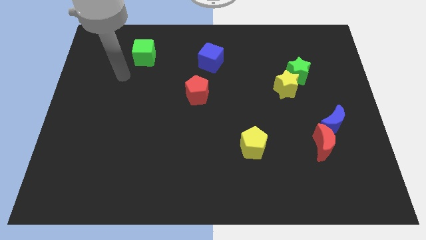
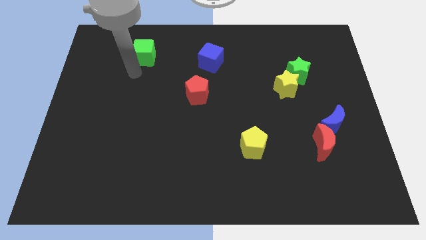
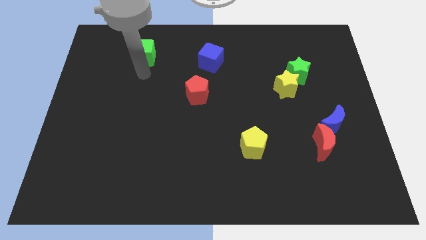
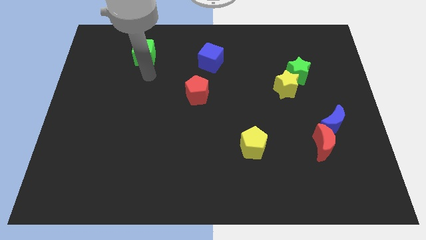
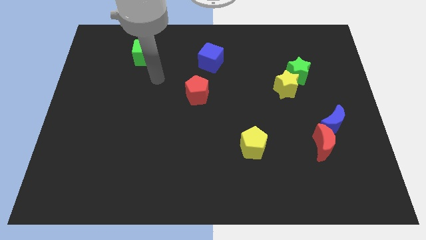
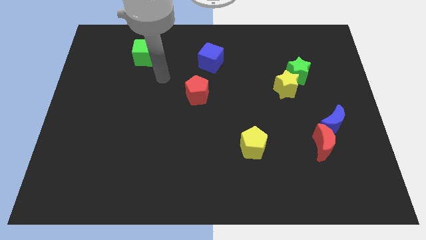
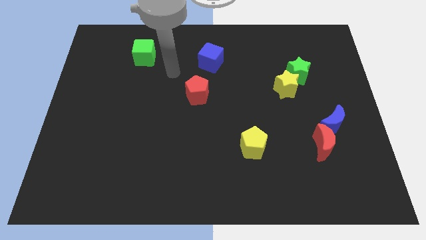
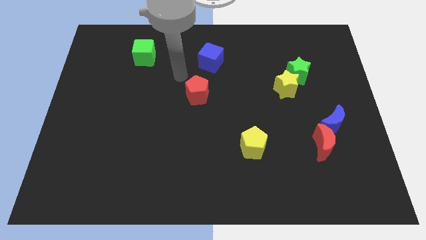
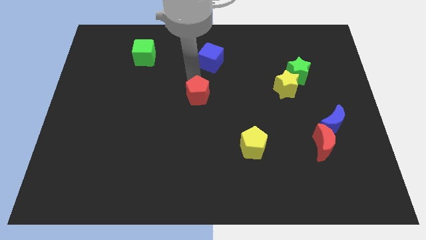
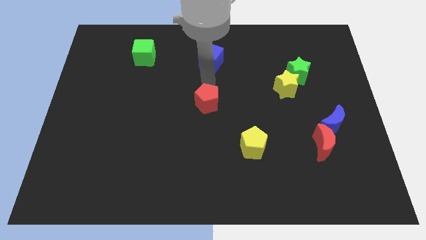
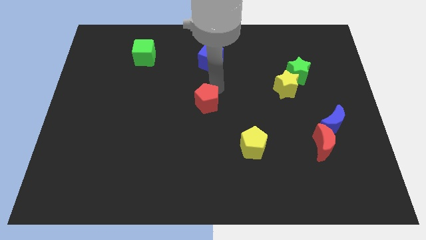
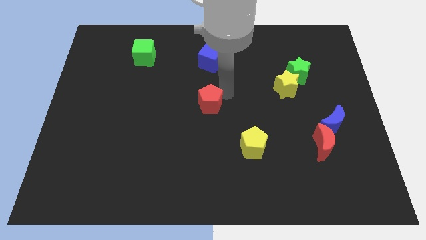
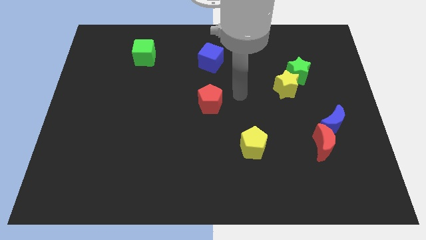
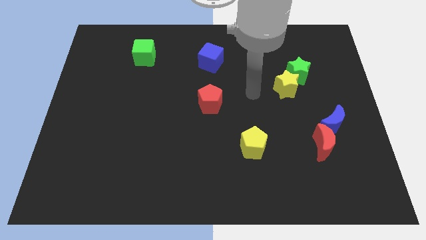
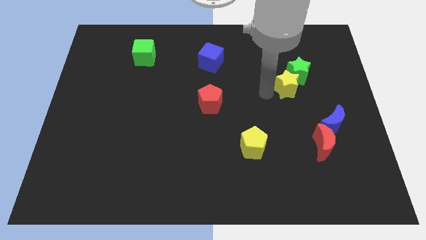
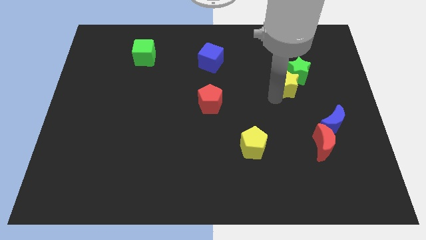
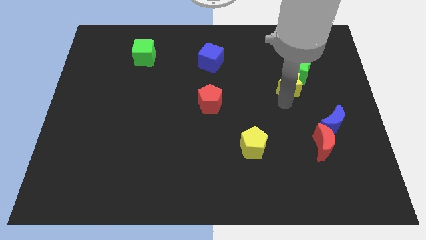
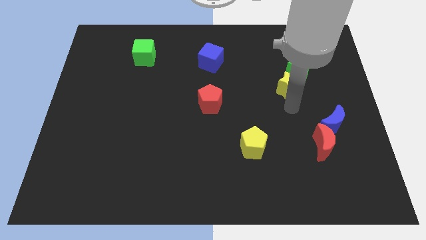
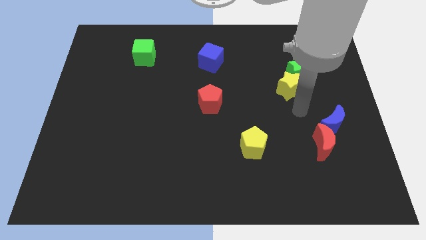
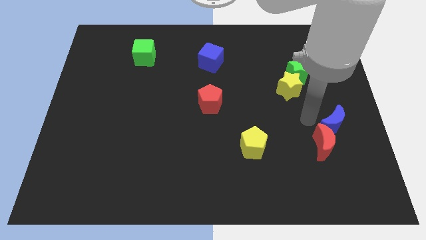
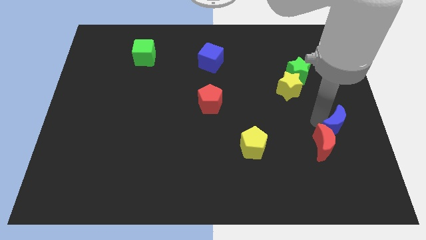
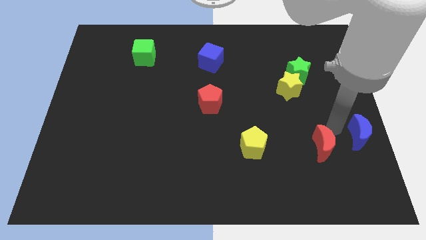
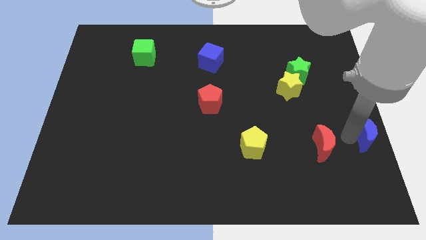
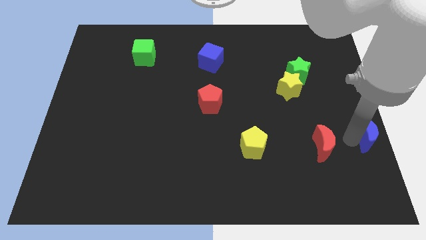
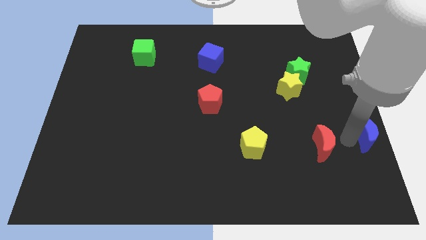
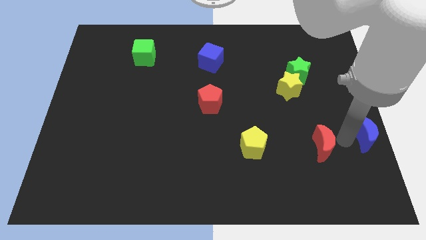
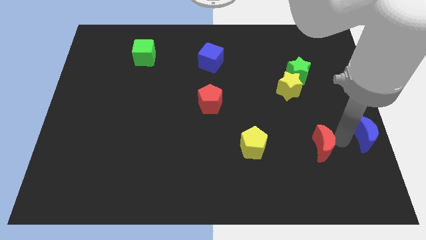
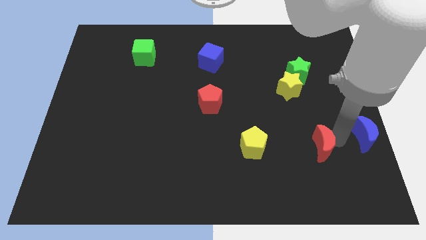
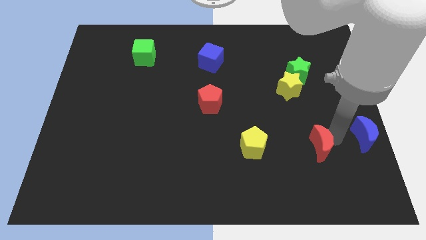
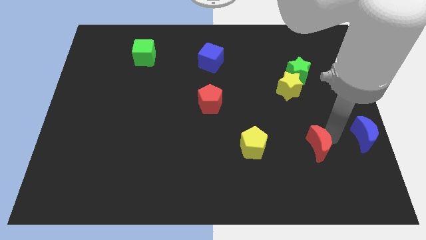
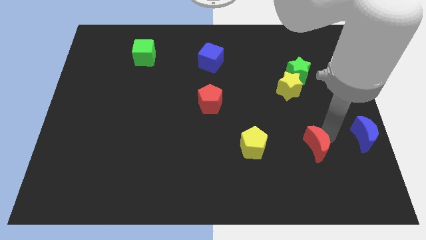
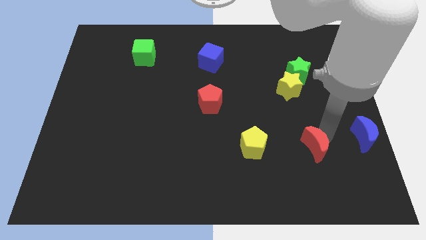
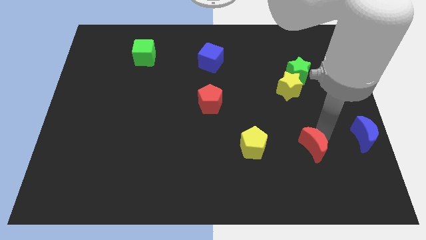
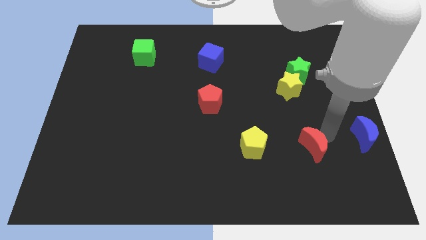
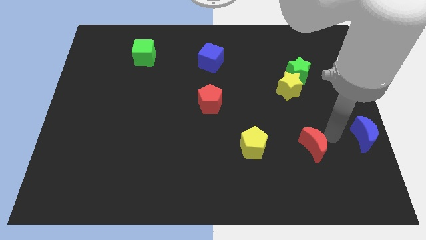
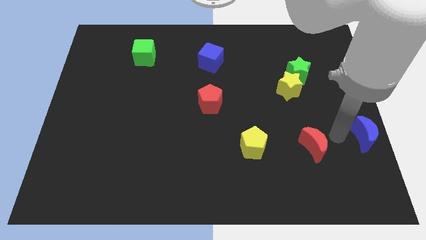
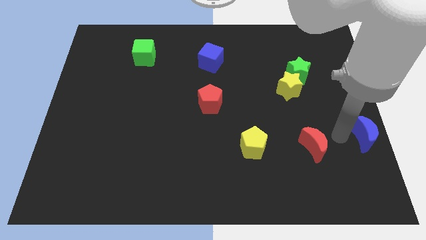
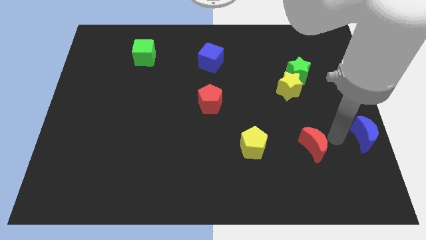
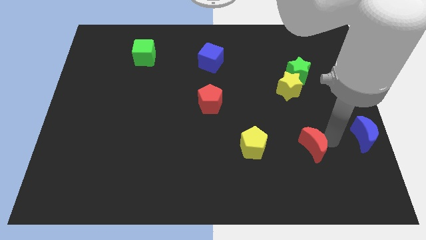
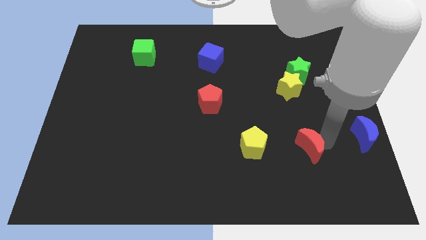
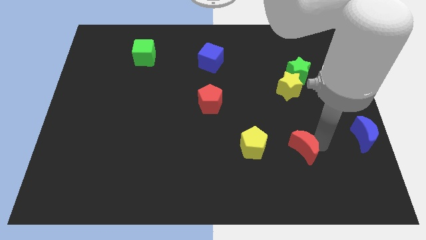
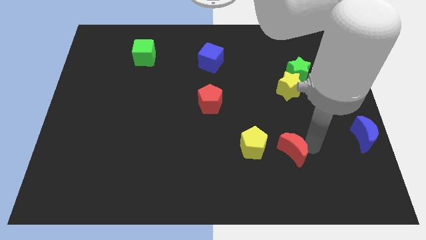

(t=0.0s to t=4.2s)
slightly move the red moon to the left

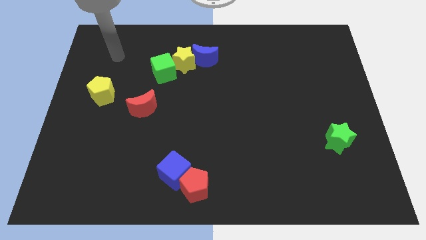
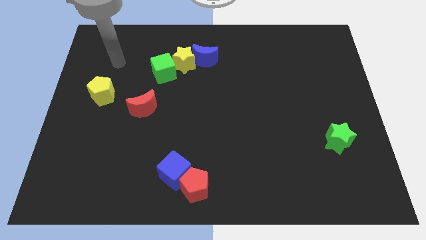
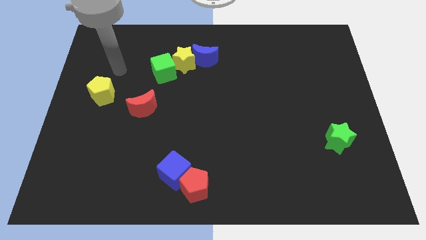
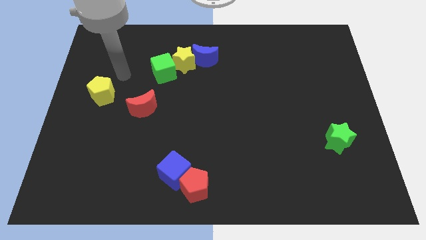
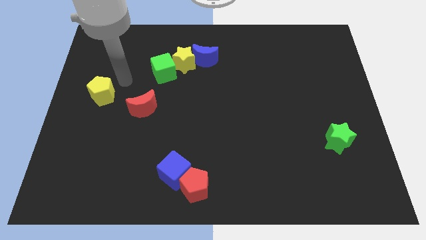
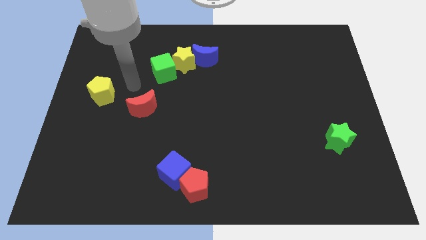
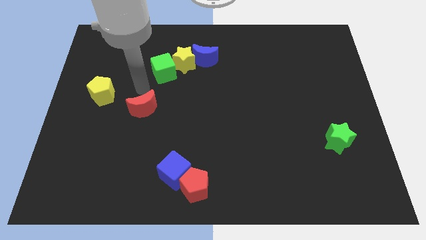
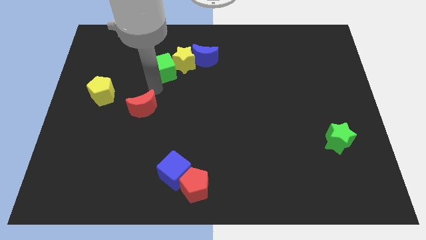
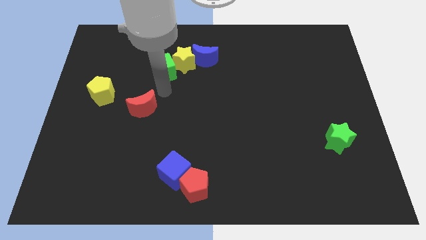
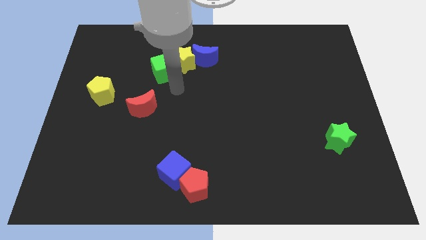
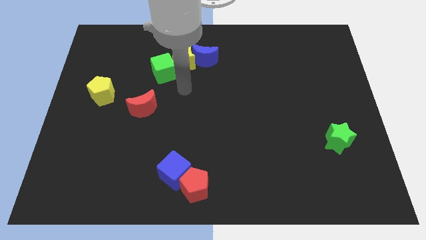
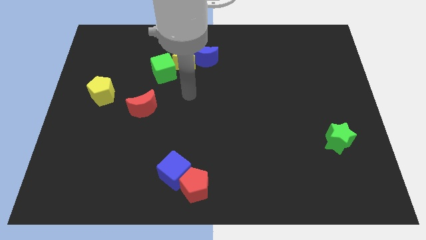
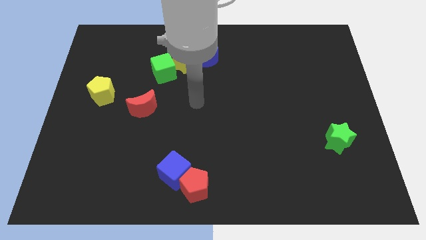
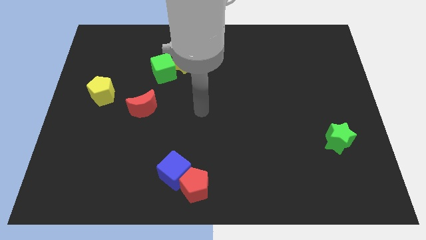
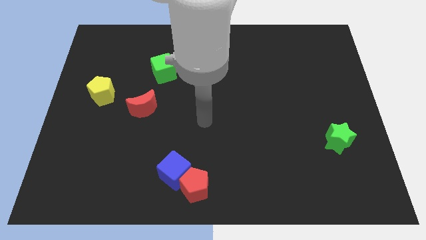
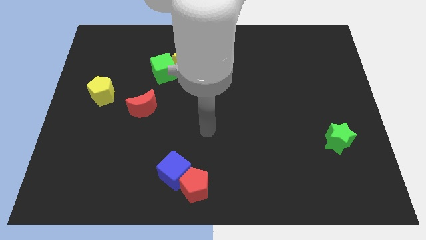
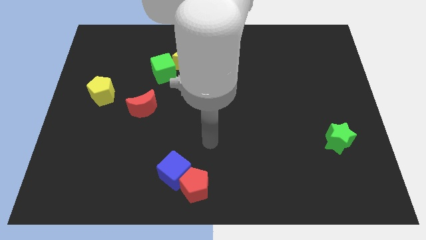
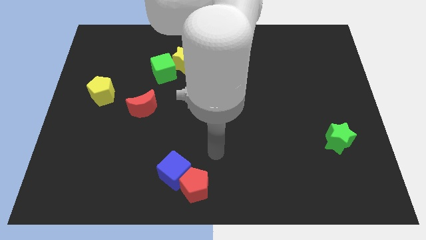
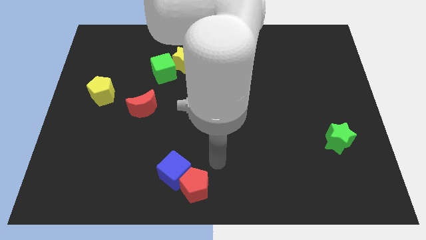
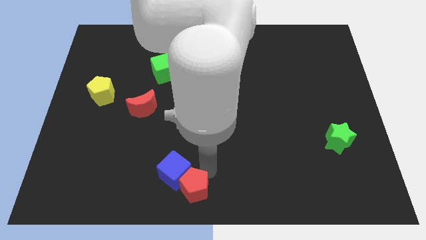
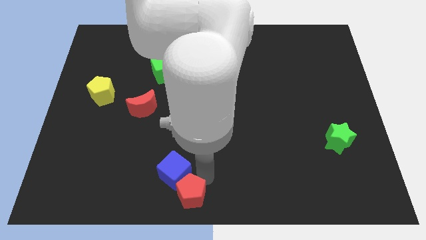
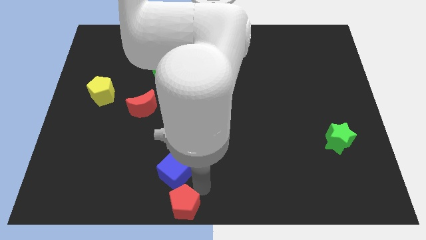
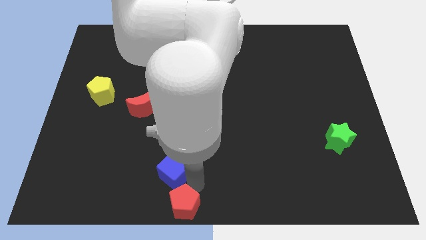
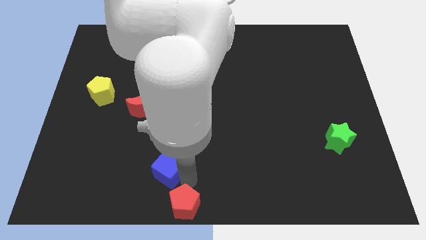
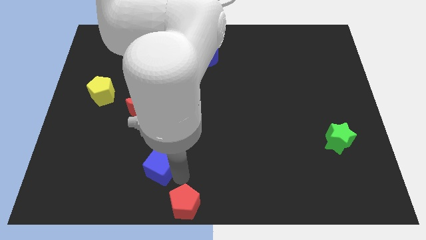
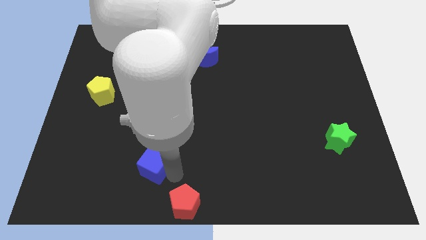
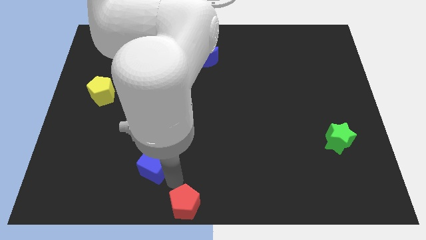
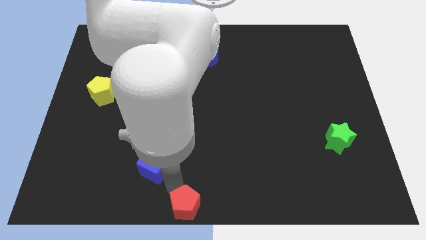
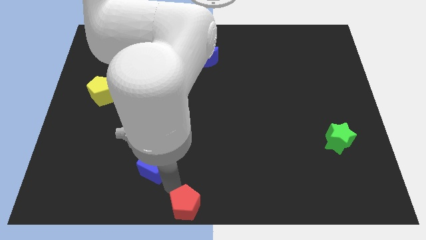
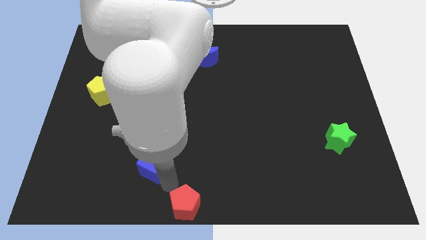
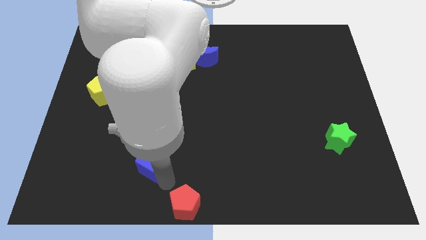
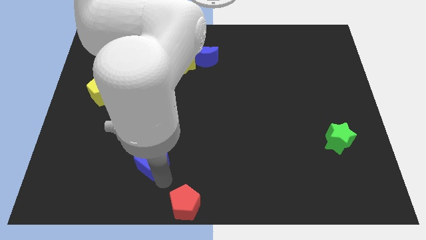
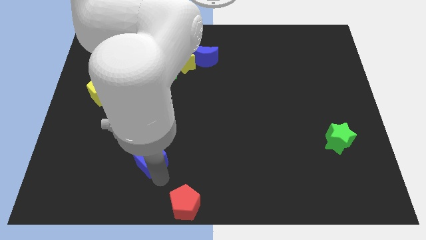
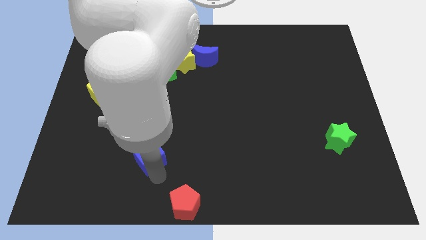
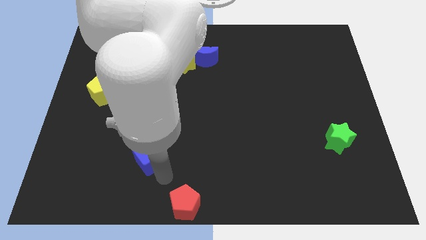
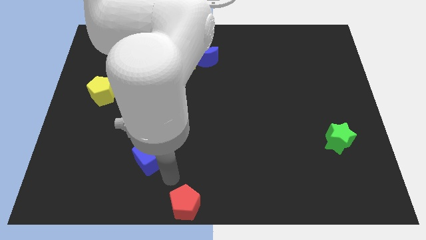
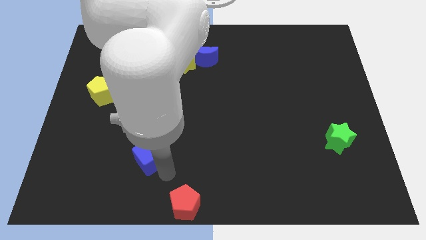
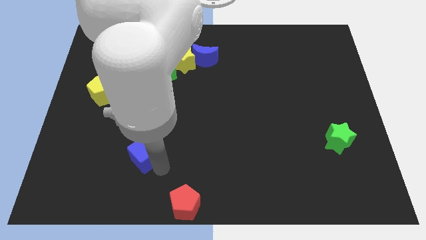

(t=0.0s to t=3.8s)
push the blue cube up and then left slightly

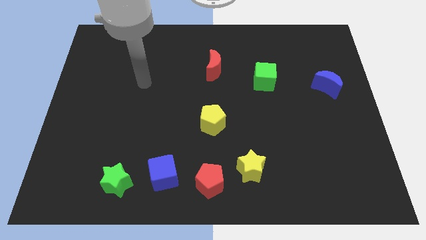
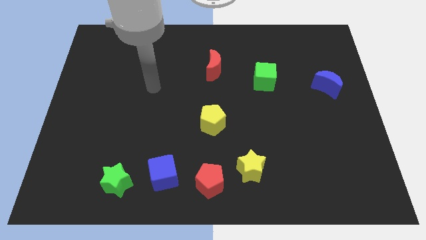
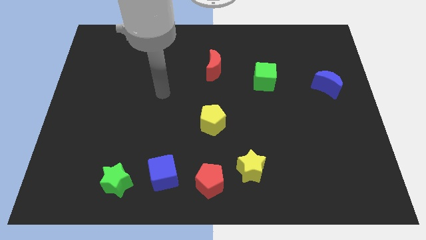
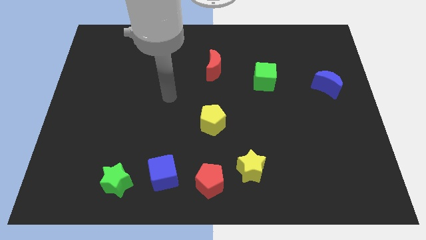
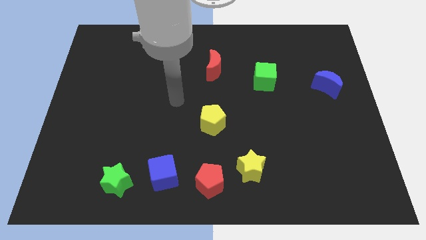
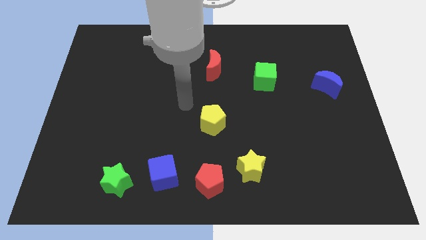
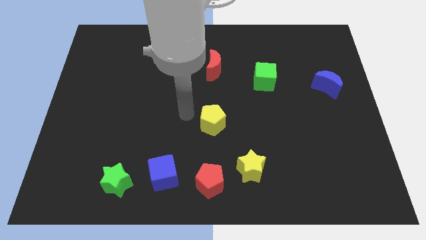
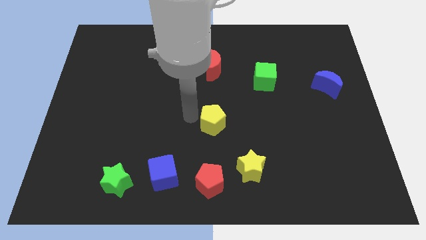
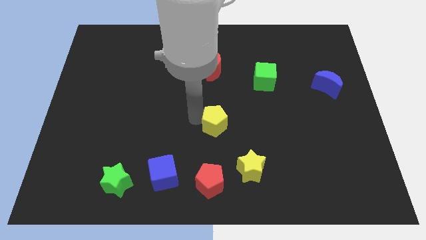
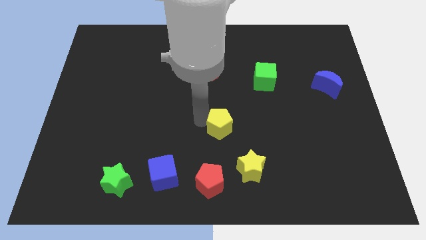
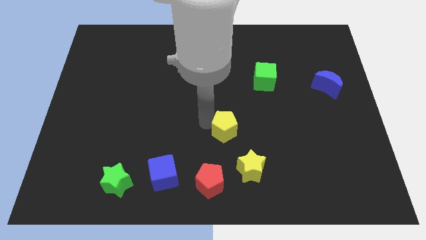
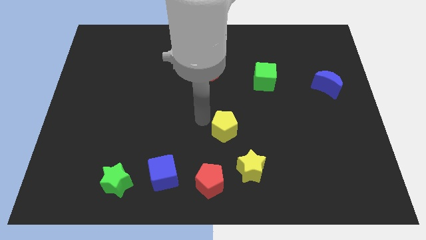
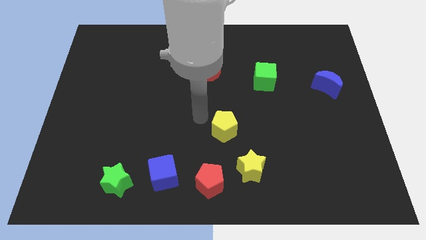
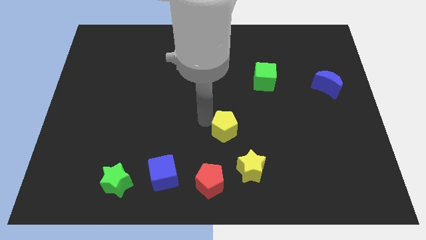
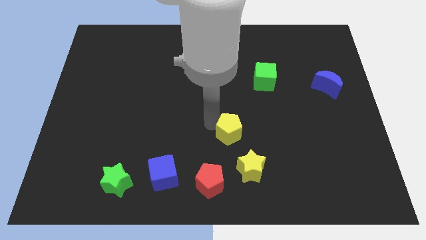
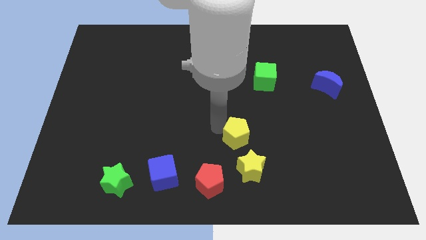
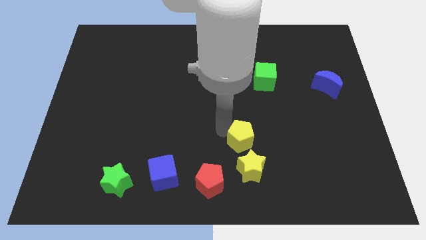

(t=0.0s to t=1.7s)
slide the yellow pentagon down and right diagonally a little bit
